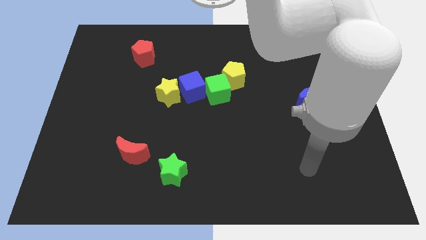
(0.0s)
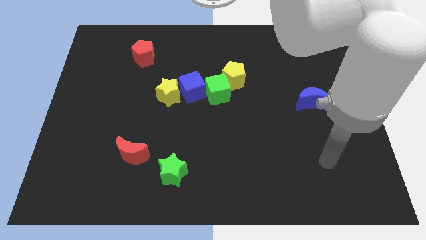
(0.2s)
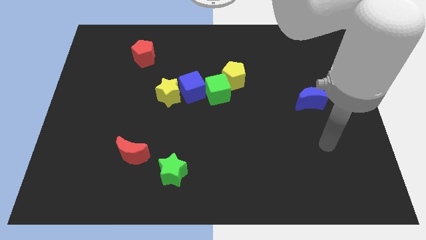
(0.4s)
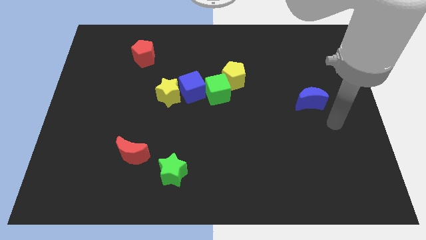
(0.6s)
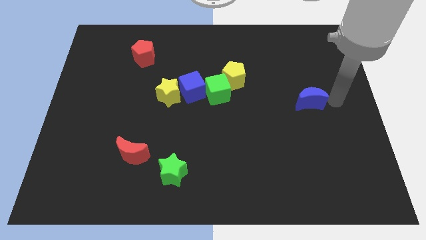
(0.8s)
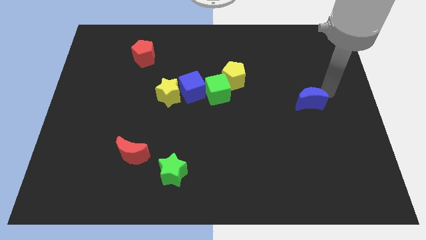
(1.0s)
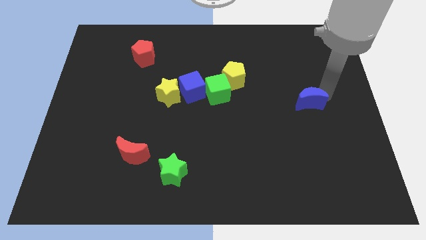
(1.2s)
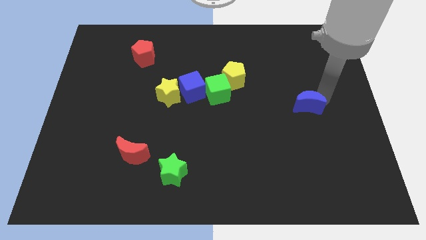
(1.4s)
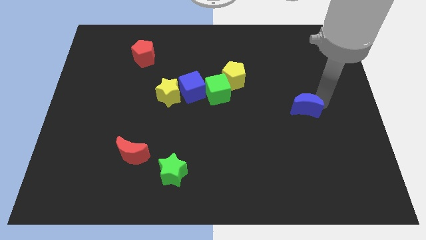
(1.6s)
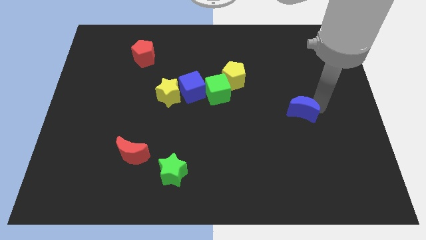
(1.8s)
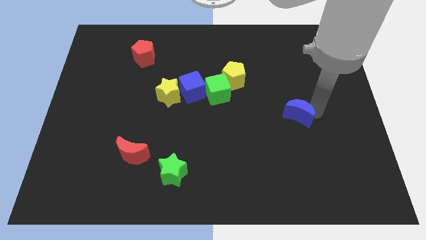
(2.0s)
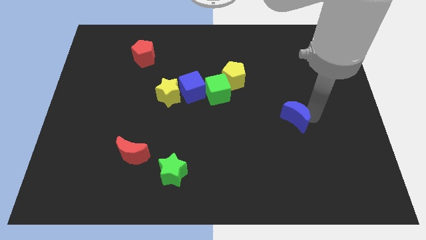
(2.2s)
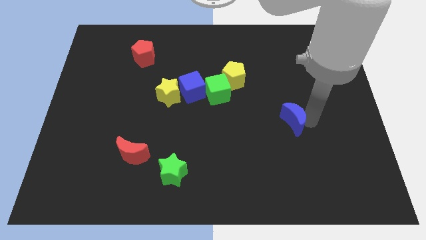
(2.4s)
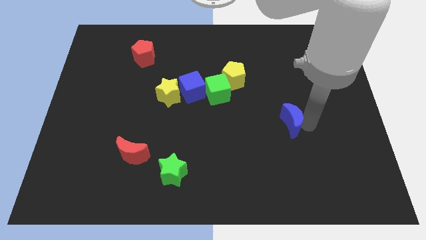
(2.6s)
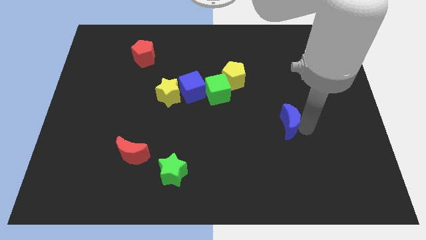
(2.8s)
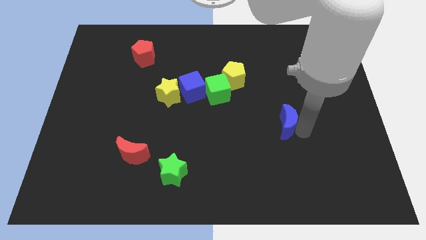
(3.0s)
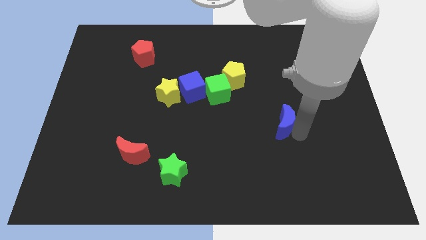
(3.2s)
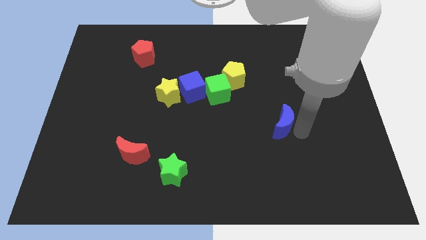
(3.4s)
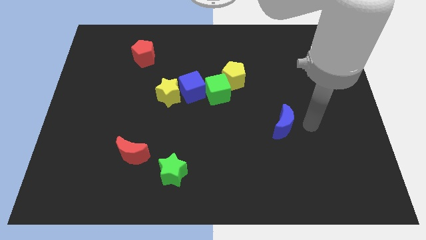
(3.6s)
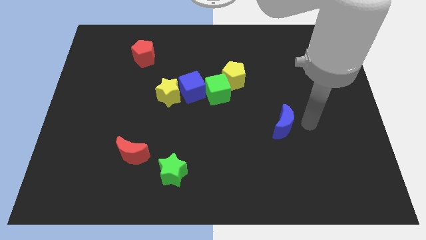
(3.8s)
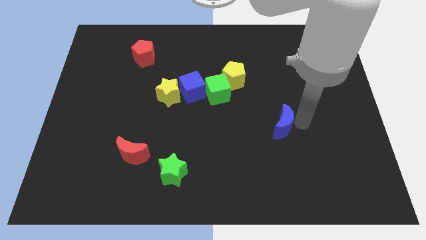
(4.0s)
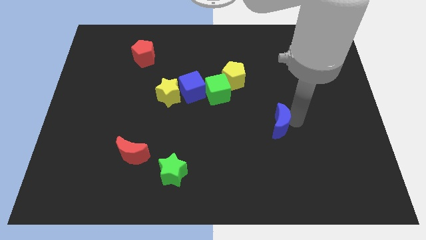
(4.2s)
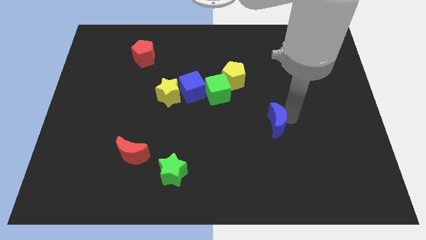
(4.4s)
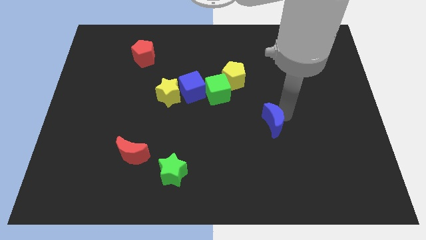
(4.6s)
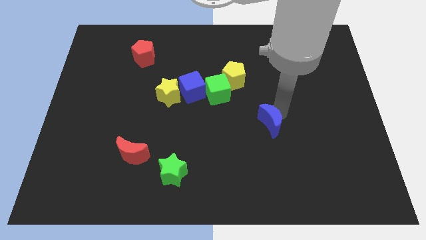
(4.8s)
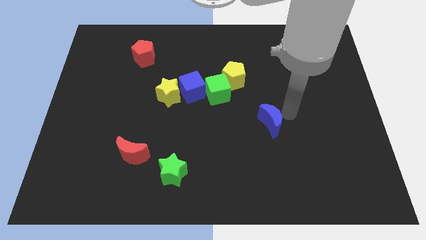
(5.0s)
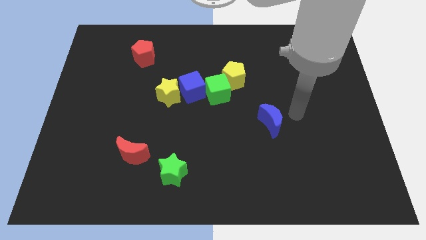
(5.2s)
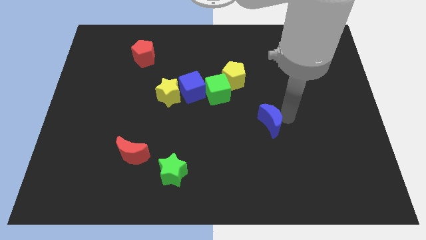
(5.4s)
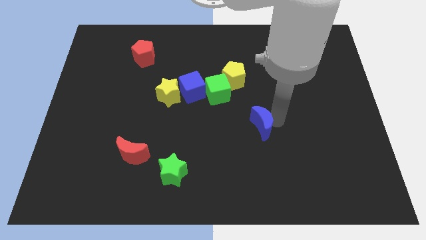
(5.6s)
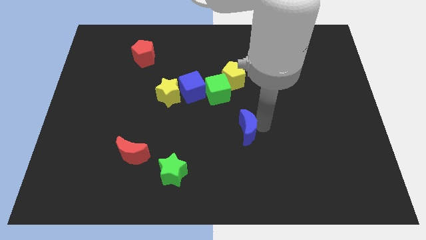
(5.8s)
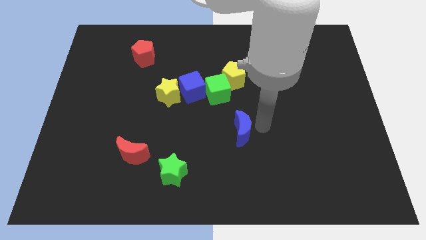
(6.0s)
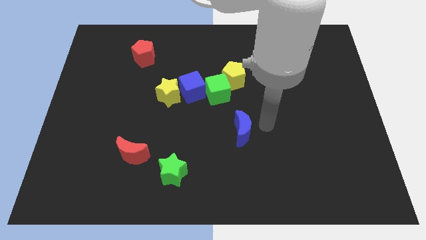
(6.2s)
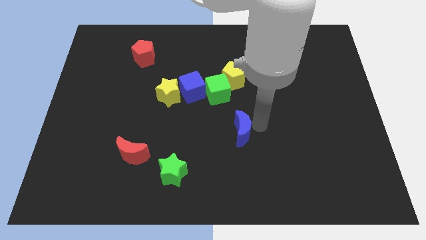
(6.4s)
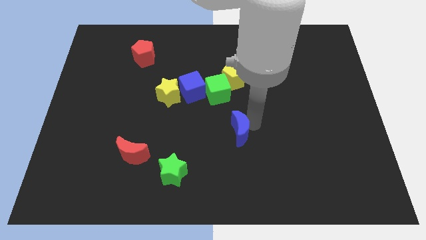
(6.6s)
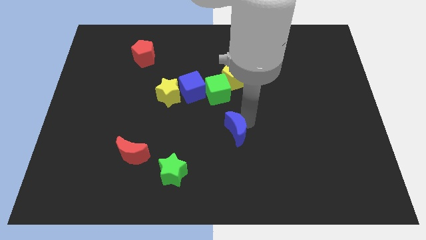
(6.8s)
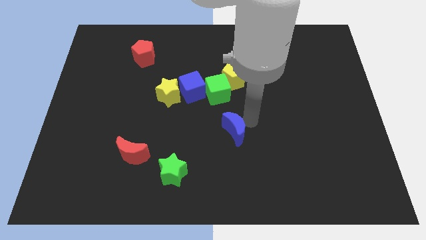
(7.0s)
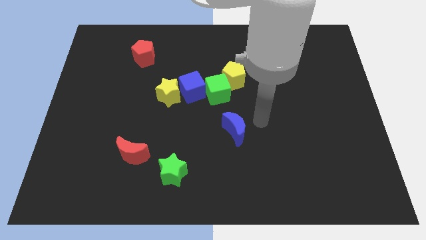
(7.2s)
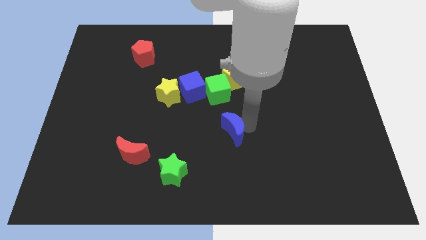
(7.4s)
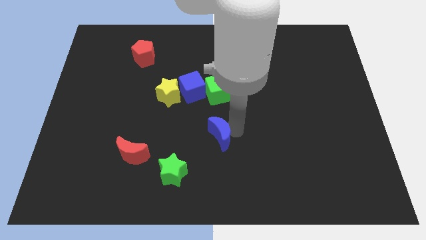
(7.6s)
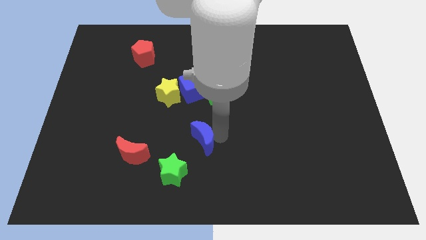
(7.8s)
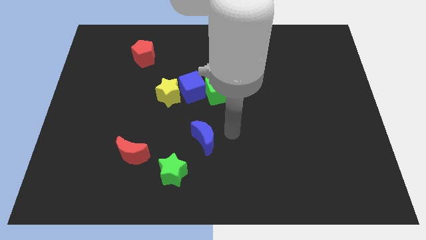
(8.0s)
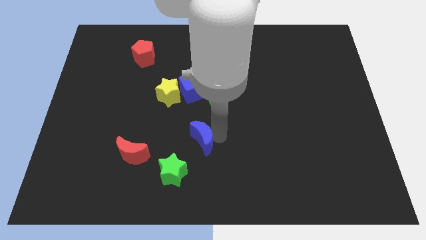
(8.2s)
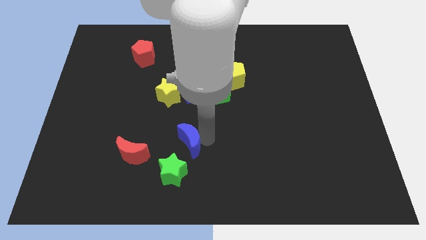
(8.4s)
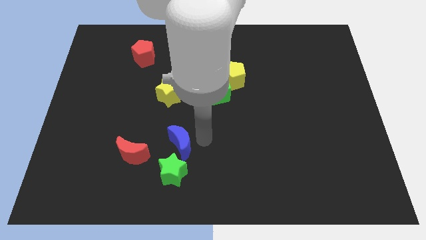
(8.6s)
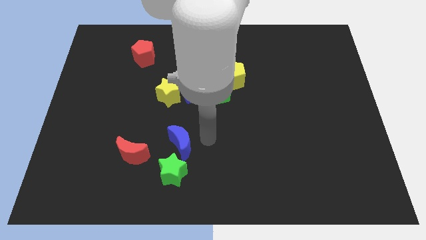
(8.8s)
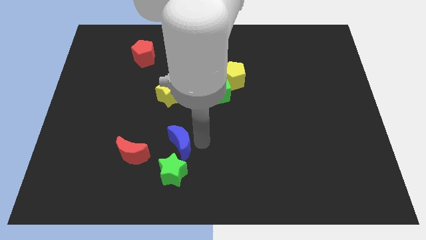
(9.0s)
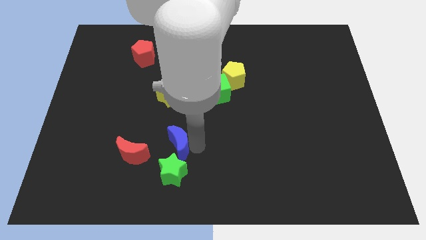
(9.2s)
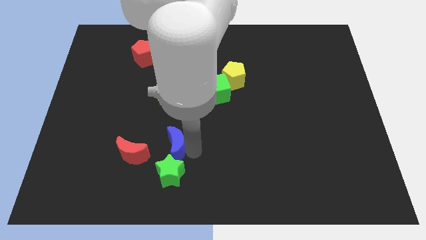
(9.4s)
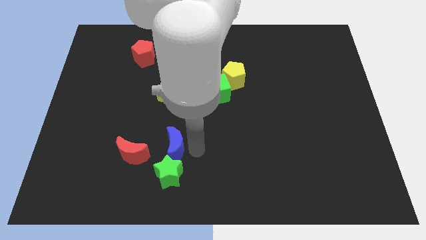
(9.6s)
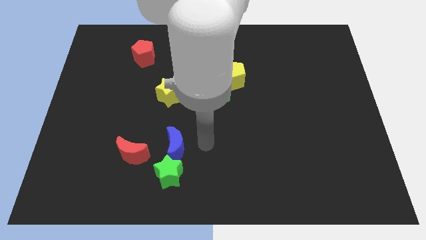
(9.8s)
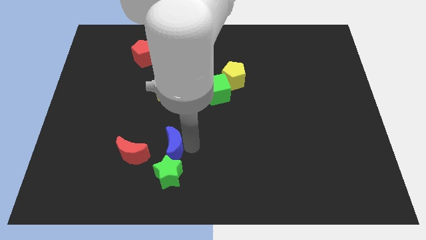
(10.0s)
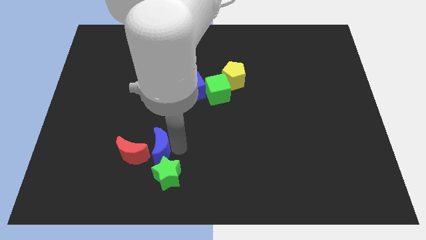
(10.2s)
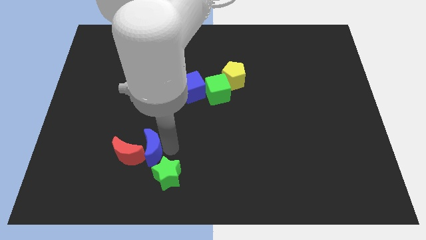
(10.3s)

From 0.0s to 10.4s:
slide the blue moon next to the red moon

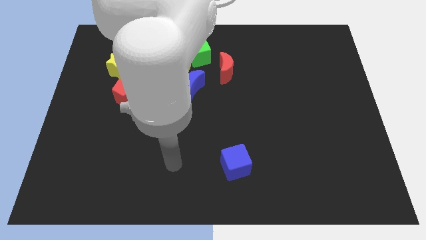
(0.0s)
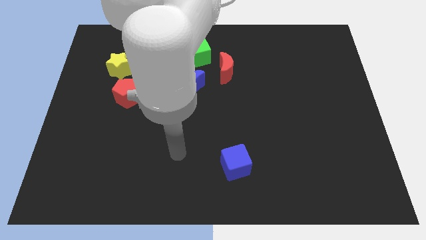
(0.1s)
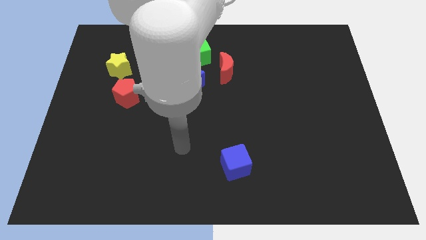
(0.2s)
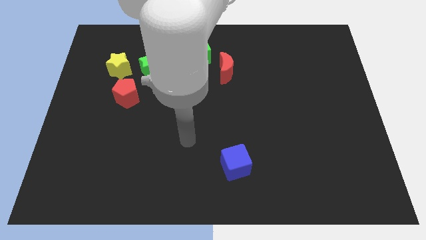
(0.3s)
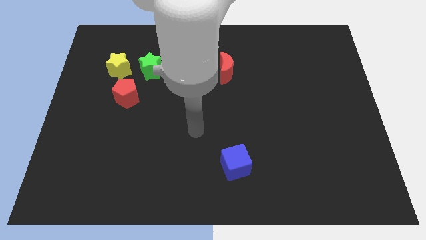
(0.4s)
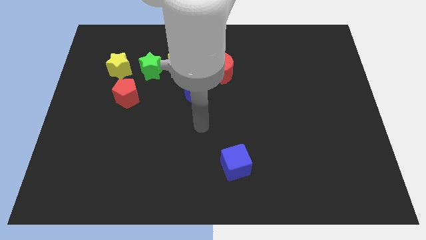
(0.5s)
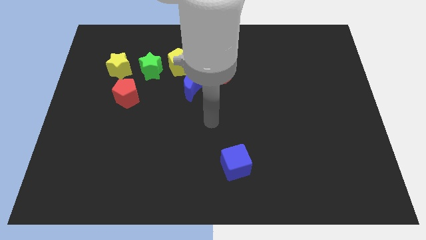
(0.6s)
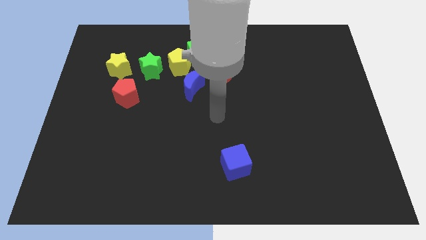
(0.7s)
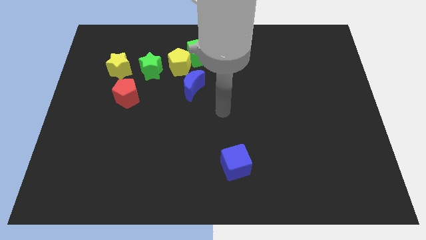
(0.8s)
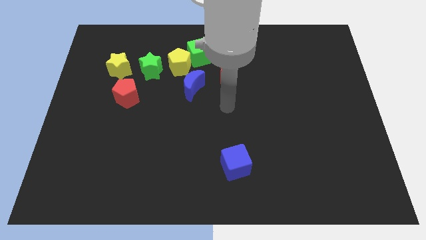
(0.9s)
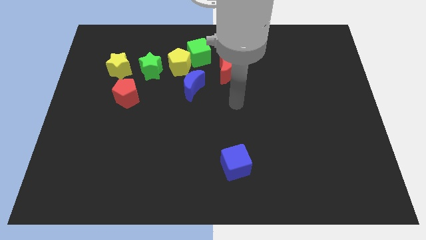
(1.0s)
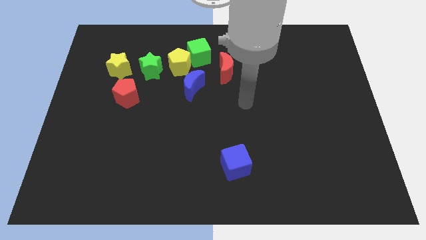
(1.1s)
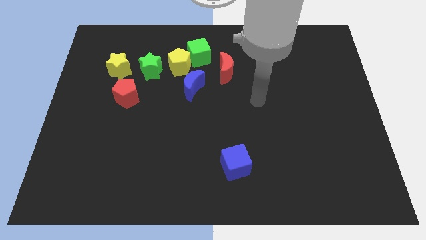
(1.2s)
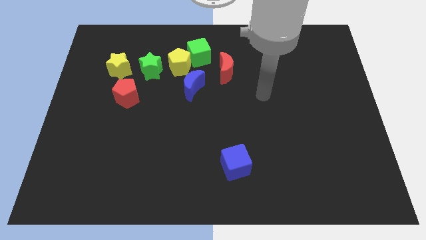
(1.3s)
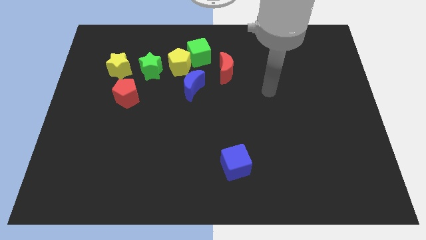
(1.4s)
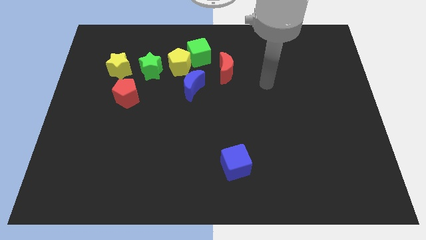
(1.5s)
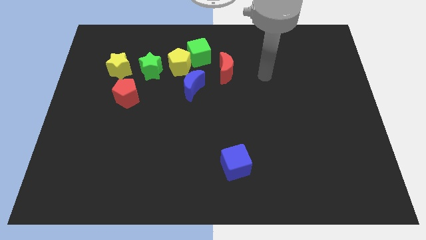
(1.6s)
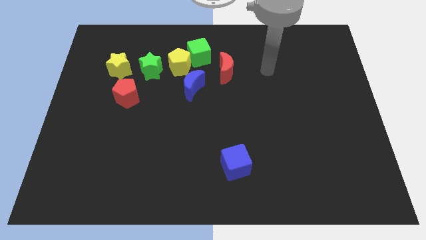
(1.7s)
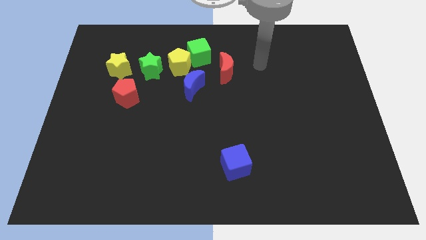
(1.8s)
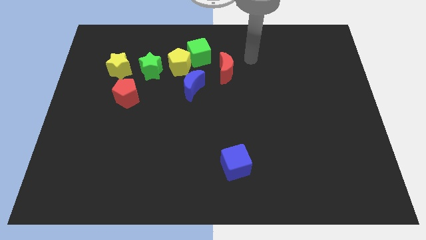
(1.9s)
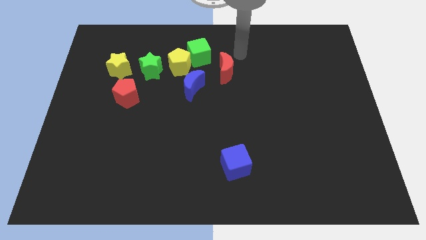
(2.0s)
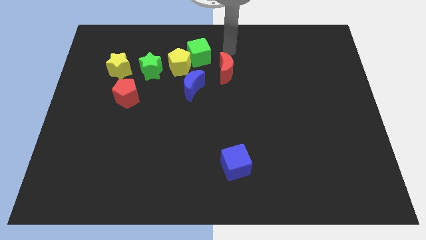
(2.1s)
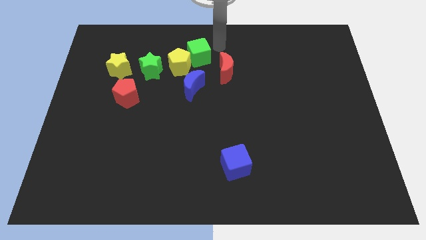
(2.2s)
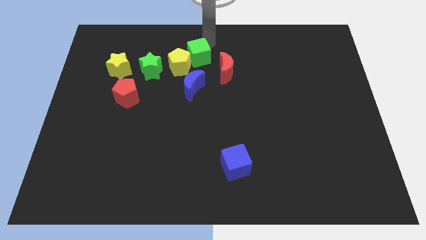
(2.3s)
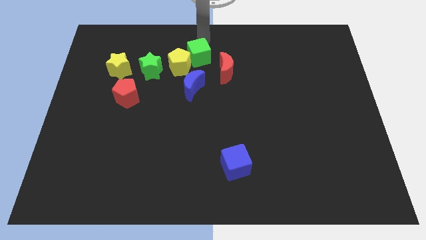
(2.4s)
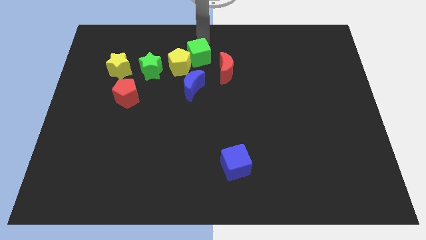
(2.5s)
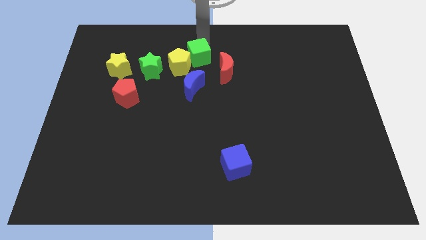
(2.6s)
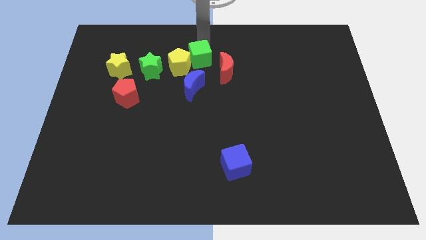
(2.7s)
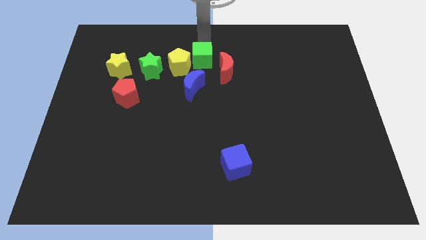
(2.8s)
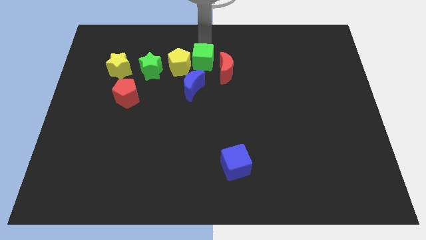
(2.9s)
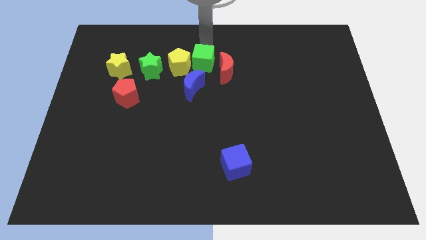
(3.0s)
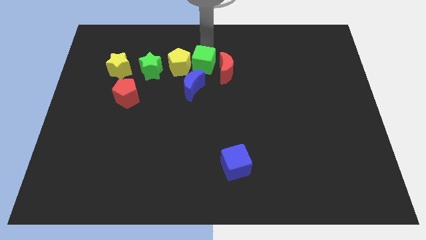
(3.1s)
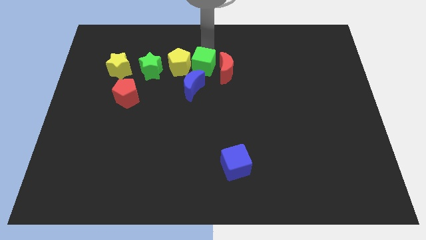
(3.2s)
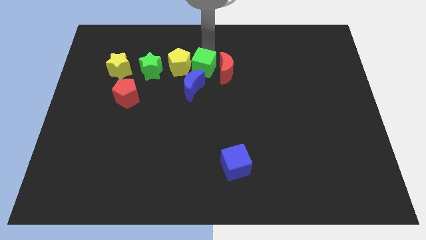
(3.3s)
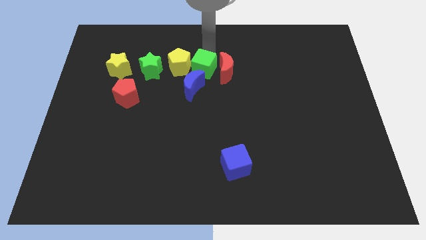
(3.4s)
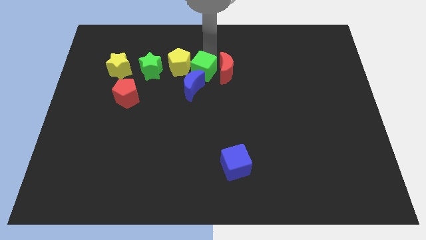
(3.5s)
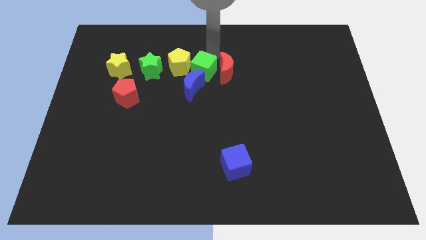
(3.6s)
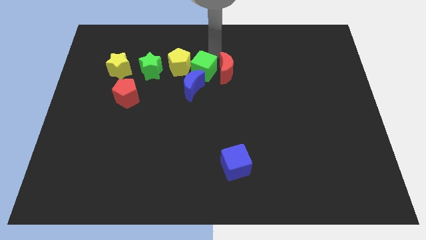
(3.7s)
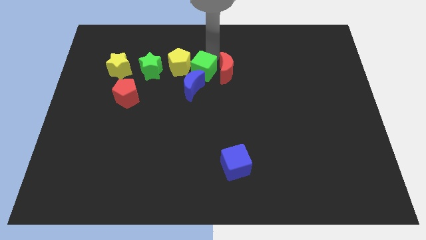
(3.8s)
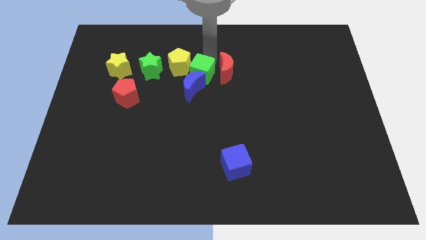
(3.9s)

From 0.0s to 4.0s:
slide the green cube next to the blue moon
